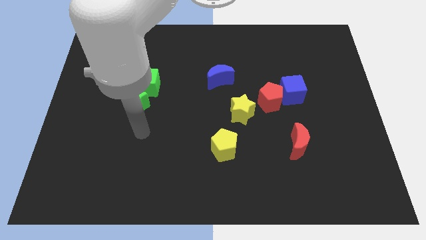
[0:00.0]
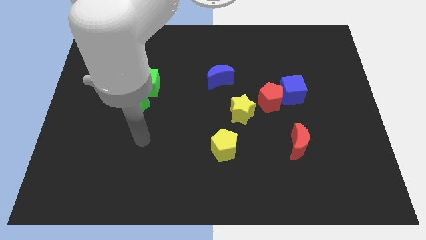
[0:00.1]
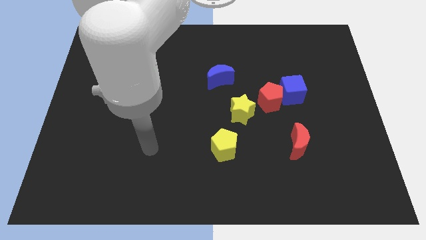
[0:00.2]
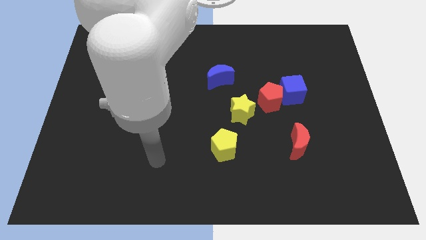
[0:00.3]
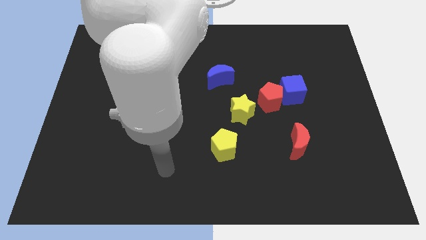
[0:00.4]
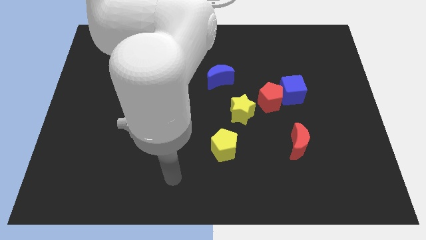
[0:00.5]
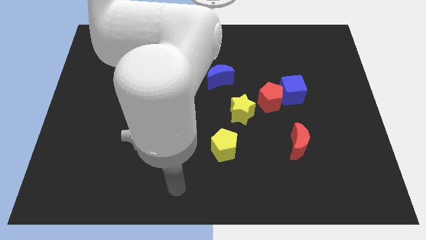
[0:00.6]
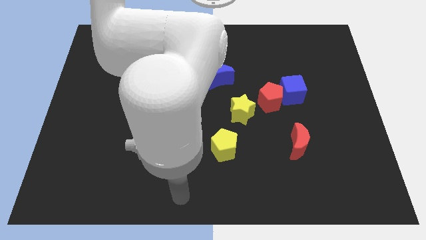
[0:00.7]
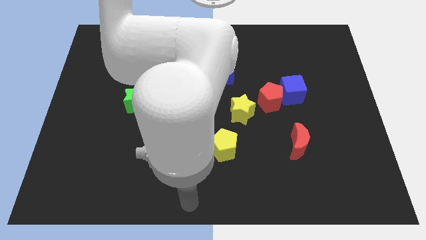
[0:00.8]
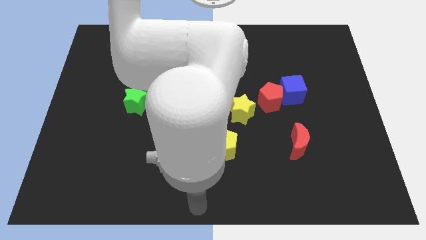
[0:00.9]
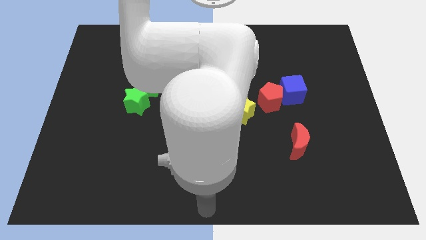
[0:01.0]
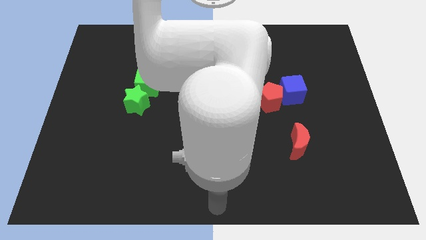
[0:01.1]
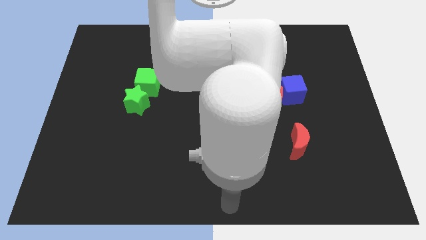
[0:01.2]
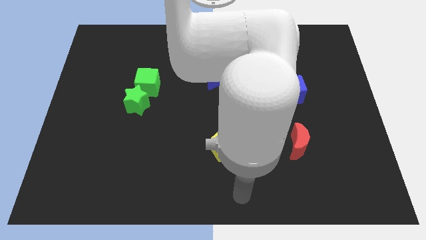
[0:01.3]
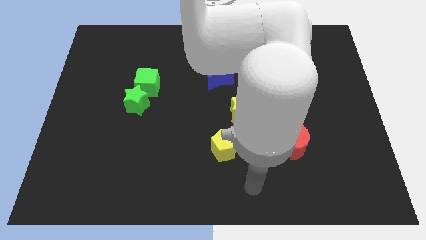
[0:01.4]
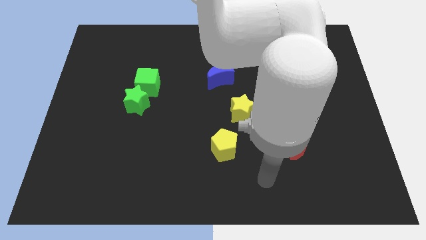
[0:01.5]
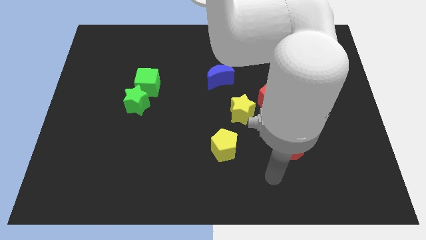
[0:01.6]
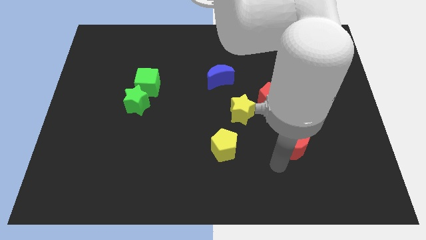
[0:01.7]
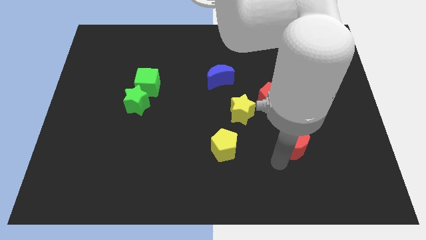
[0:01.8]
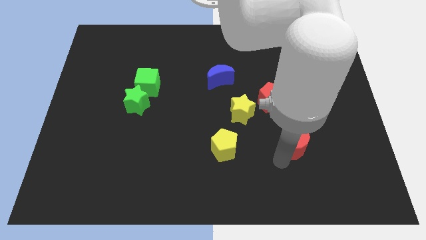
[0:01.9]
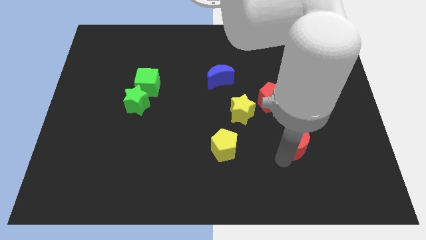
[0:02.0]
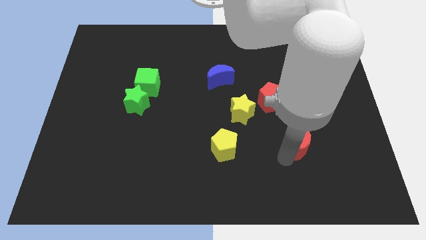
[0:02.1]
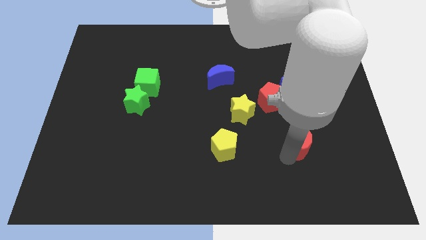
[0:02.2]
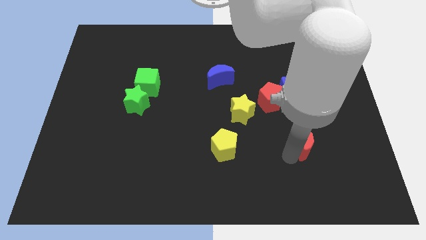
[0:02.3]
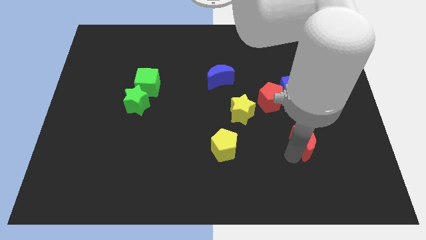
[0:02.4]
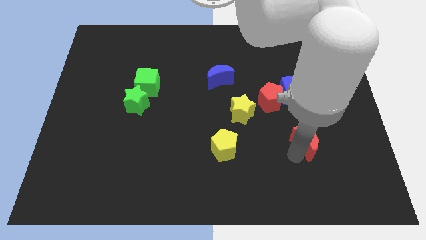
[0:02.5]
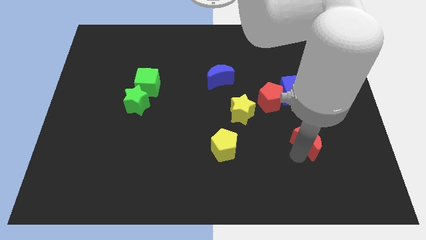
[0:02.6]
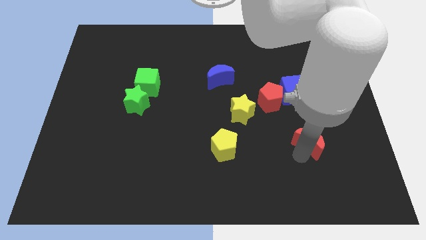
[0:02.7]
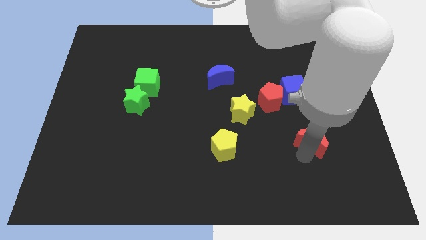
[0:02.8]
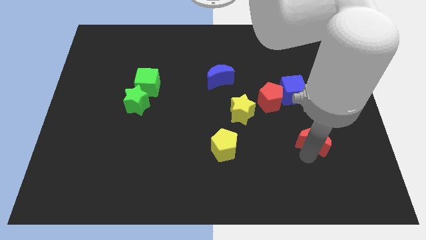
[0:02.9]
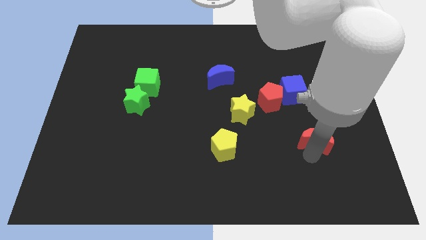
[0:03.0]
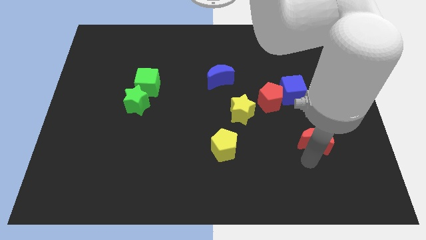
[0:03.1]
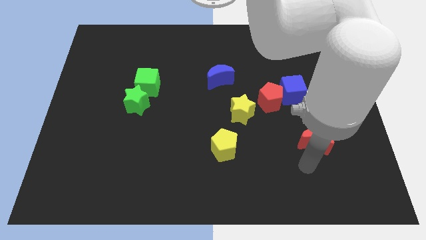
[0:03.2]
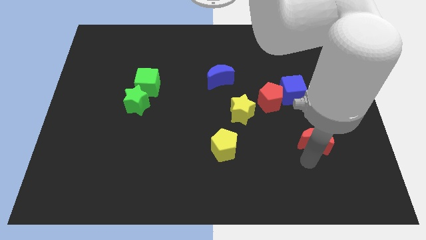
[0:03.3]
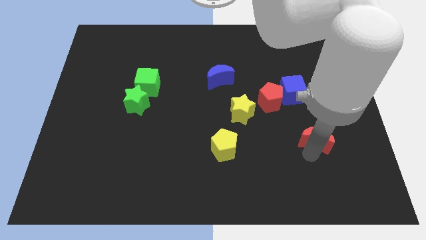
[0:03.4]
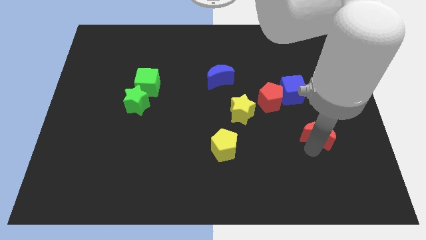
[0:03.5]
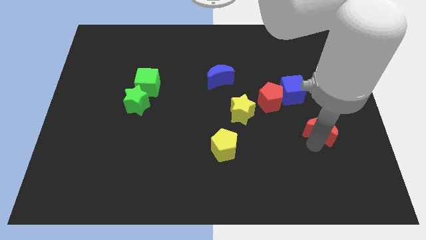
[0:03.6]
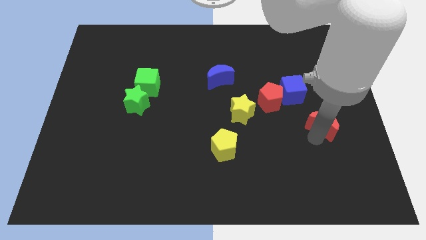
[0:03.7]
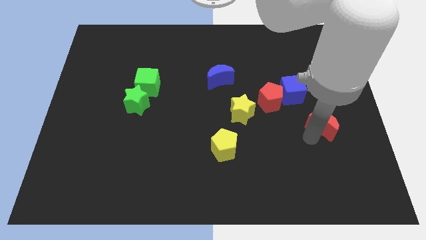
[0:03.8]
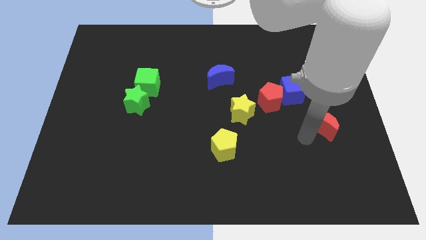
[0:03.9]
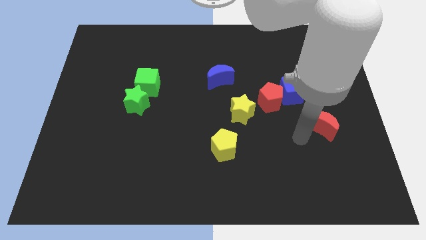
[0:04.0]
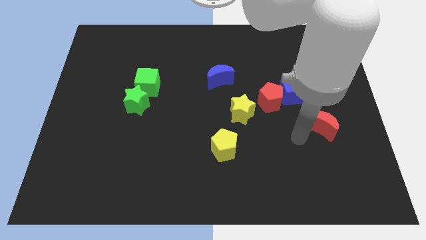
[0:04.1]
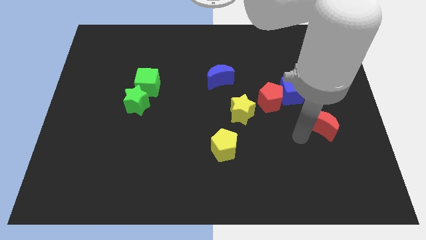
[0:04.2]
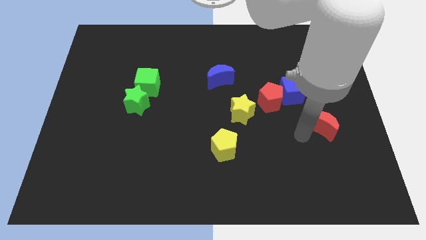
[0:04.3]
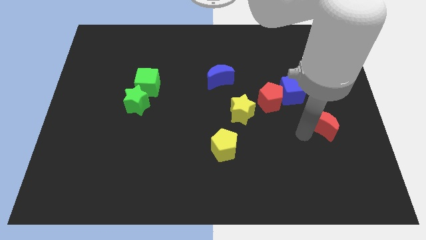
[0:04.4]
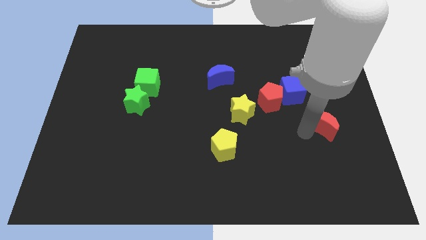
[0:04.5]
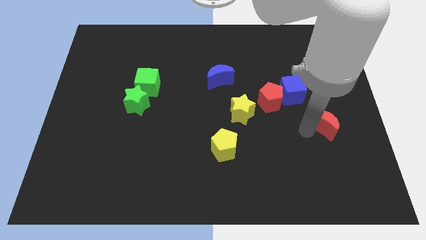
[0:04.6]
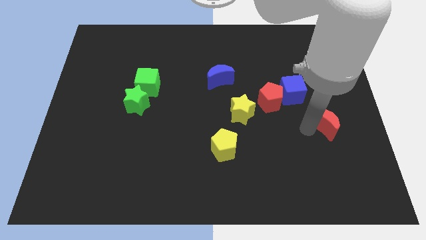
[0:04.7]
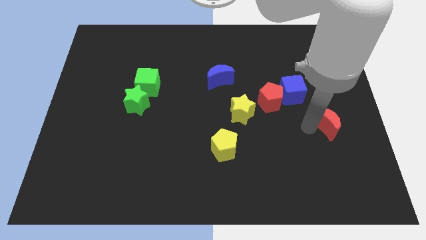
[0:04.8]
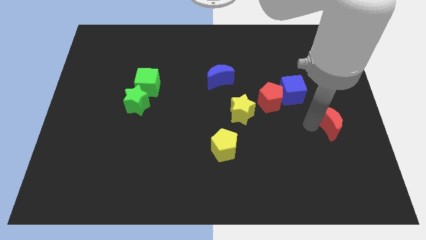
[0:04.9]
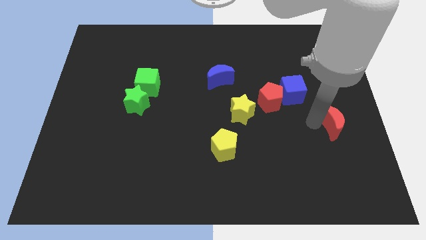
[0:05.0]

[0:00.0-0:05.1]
slide the red moon to the center right
